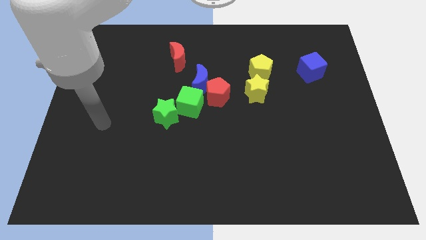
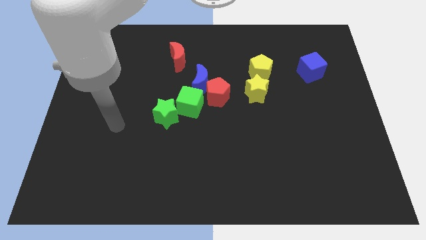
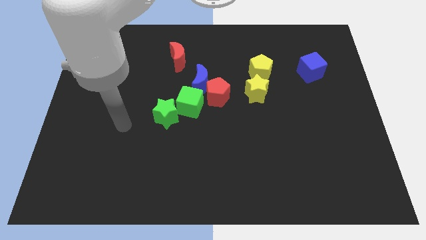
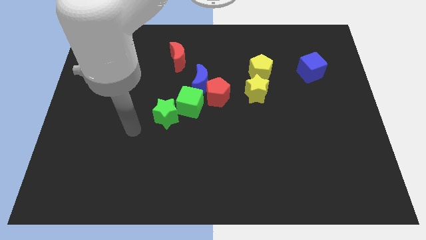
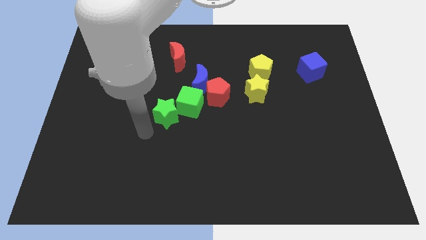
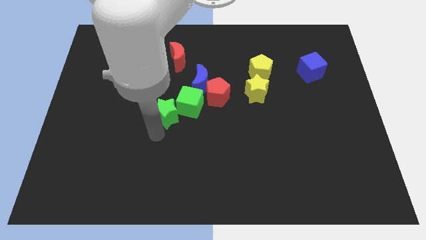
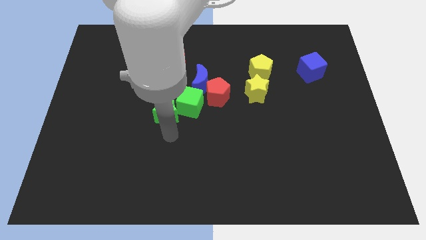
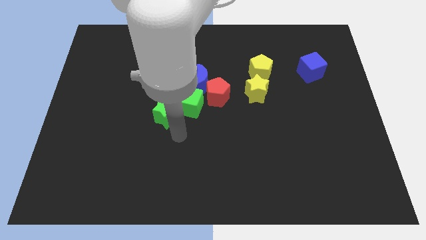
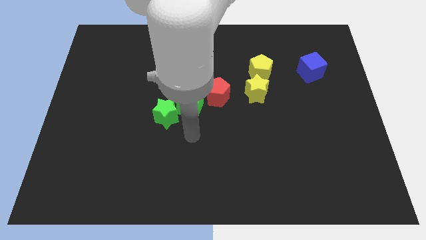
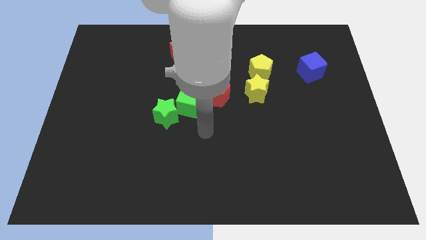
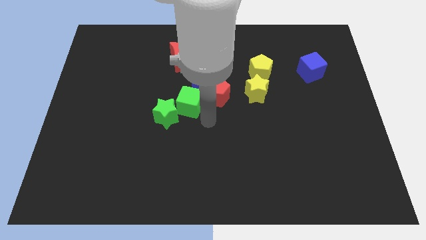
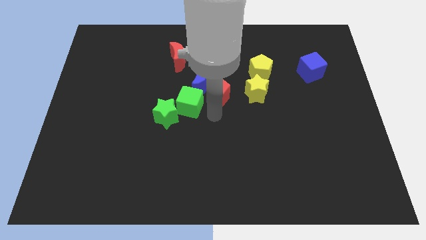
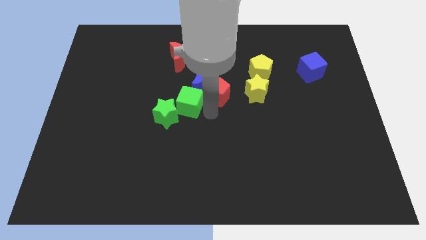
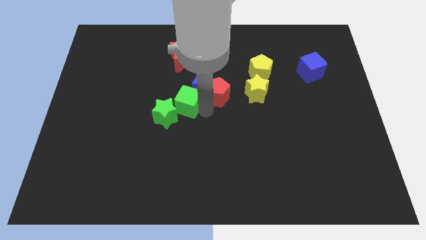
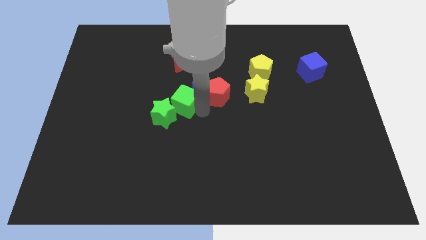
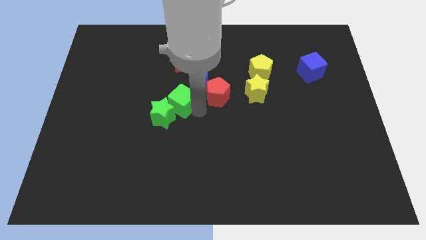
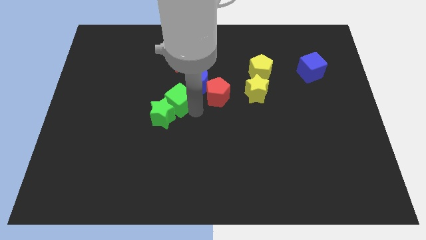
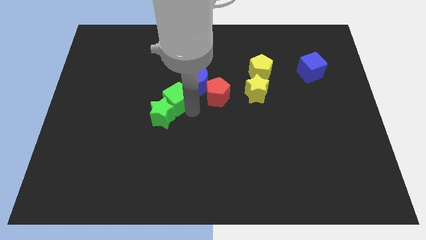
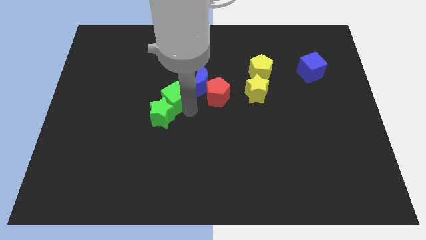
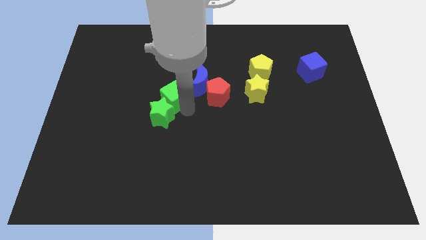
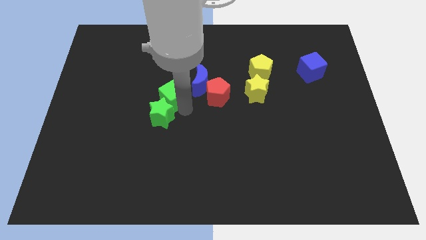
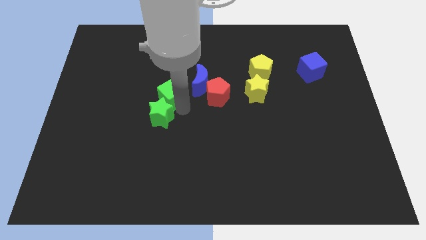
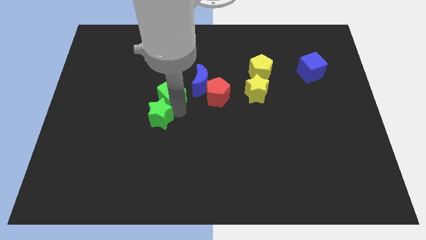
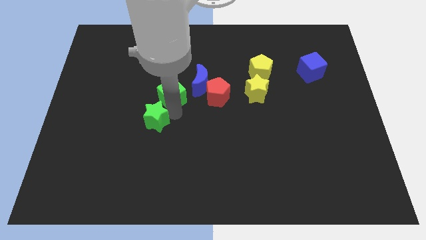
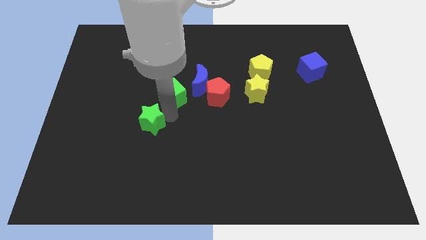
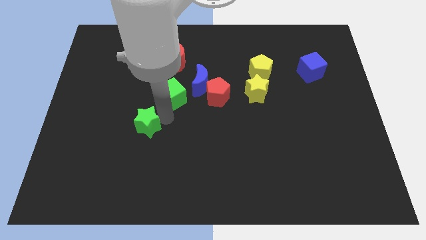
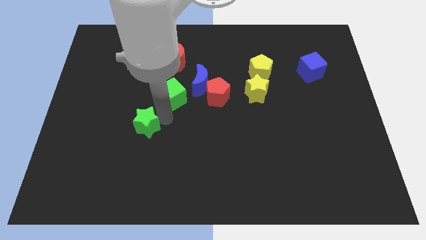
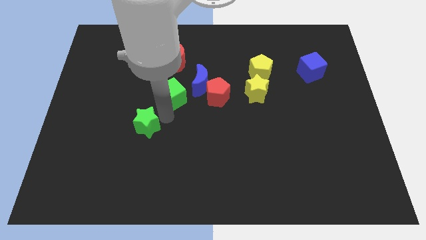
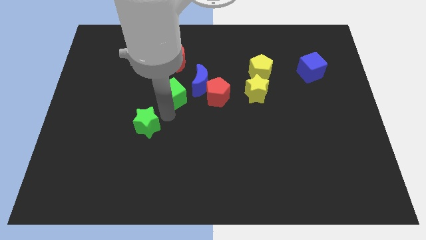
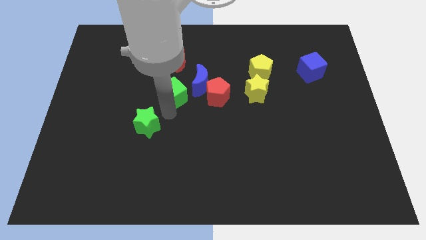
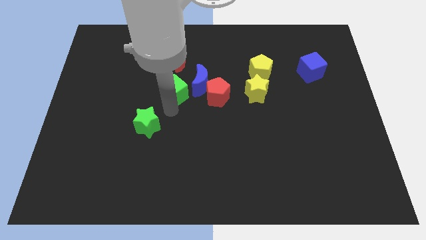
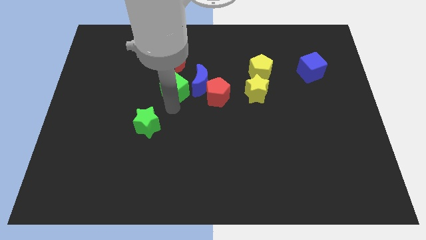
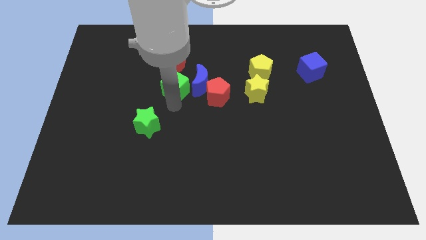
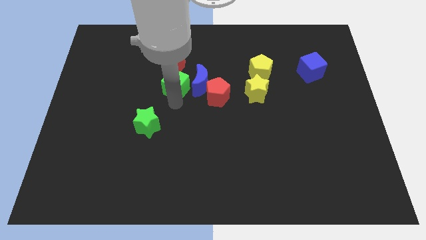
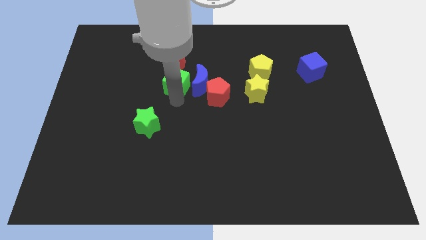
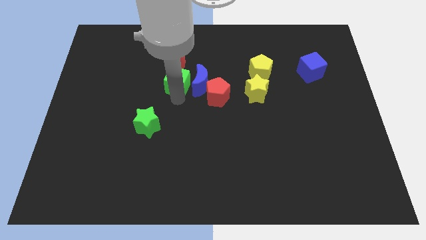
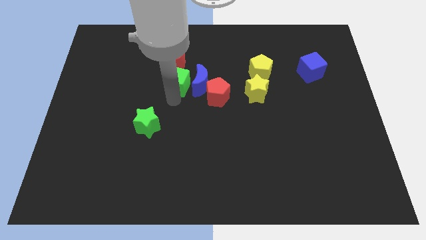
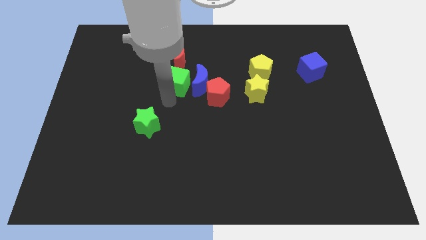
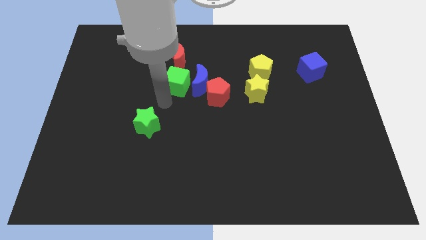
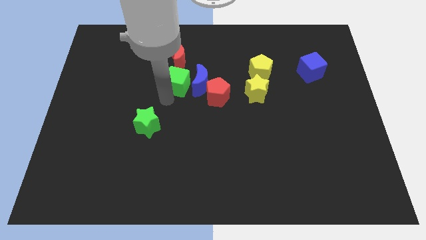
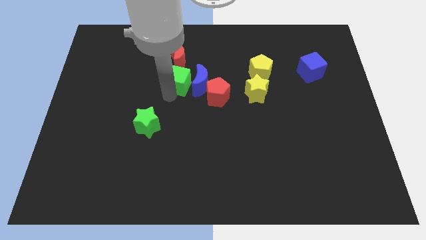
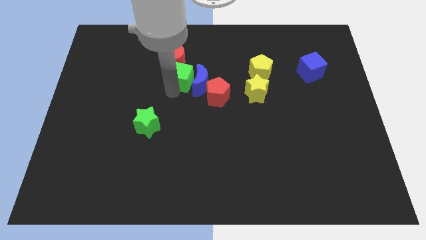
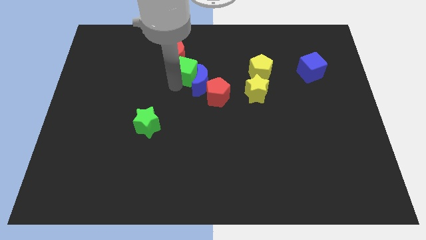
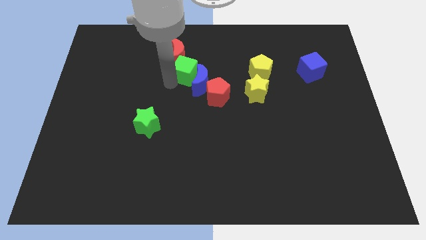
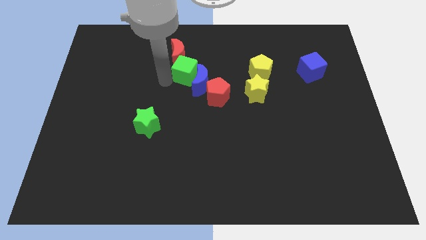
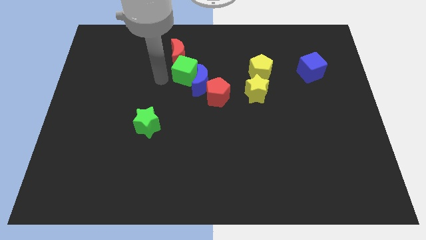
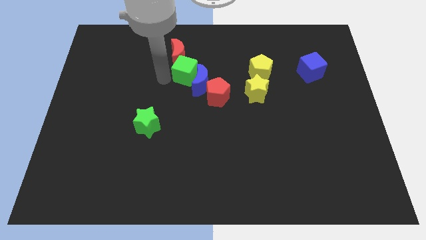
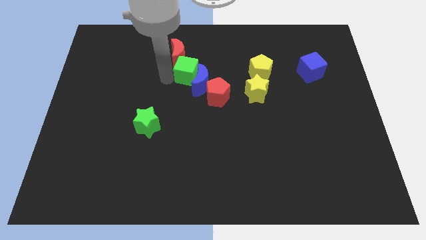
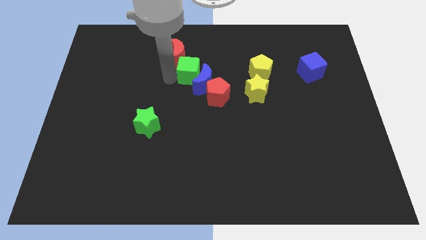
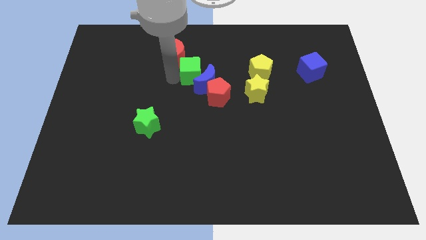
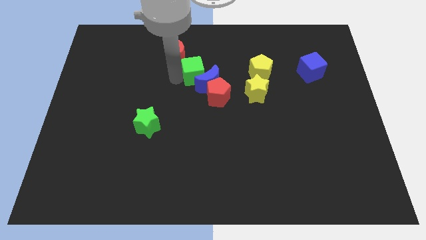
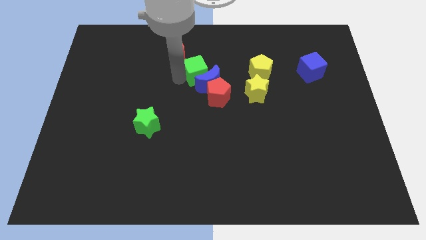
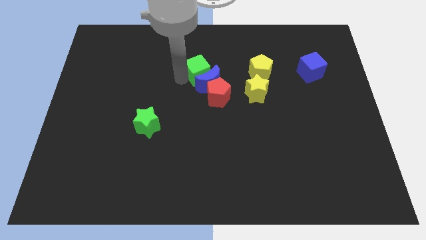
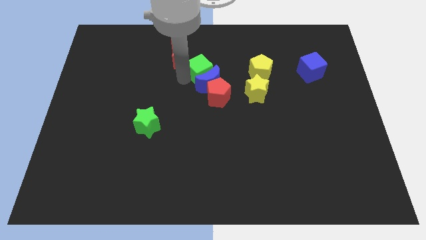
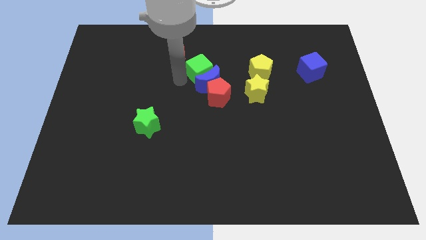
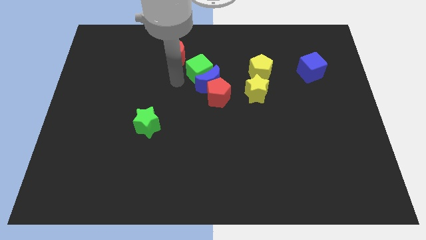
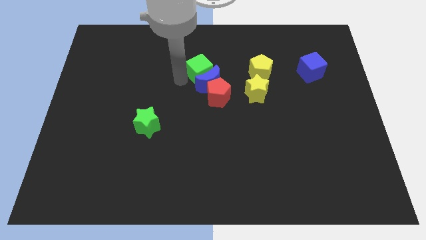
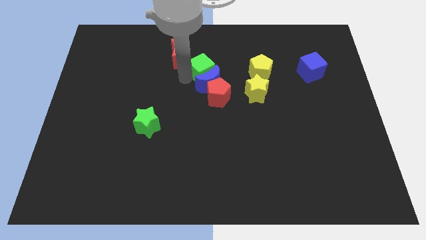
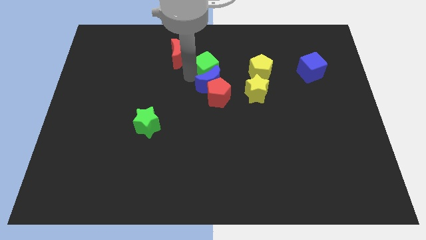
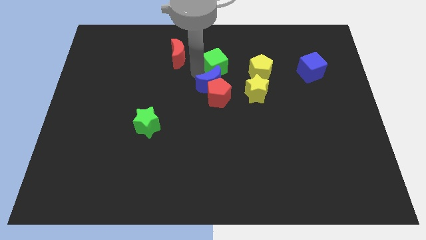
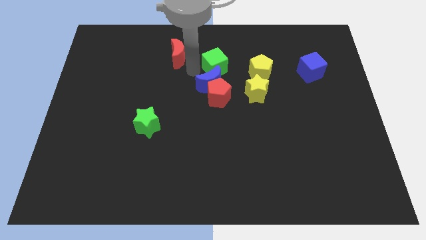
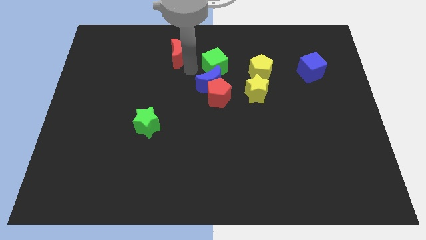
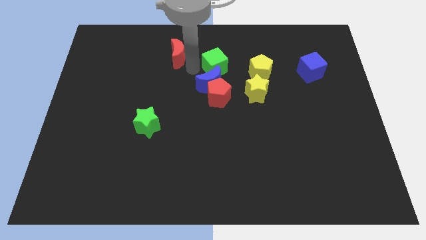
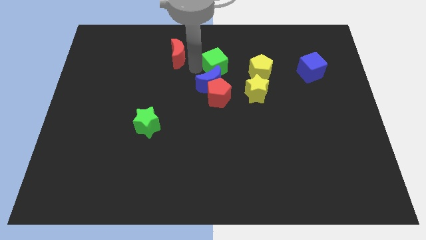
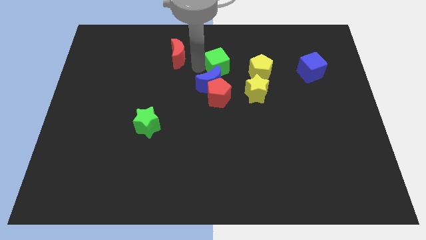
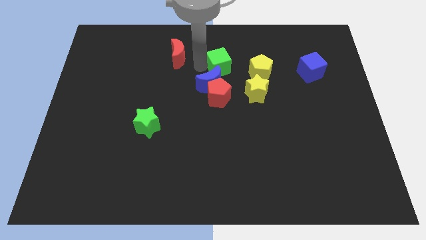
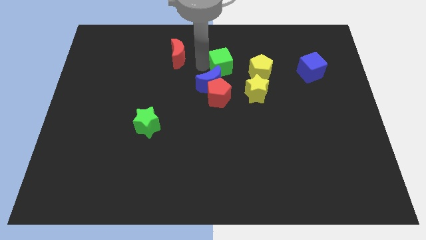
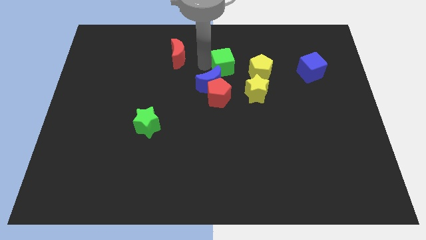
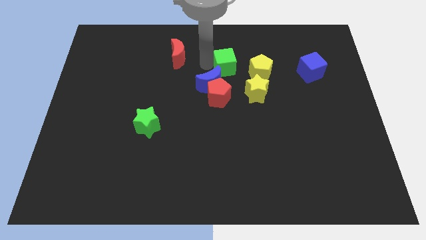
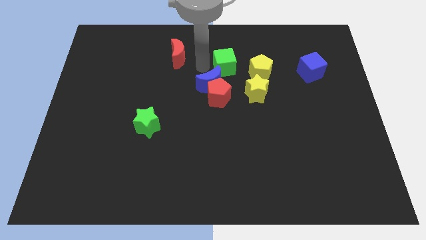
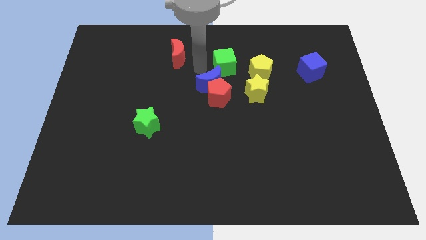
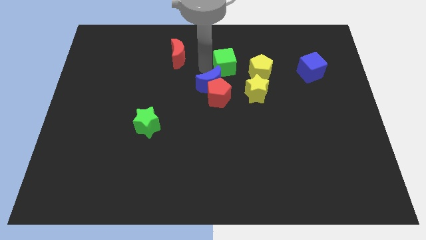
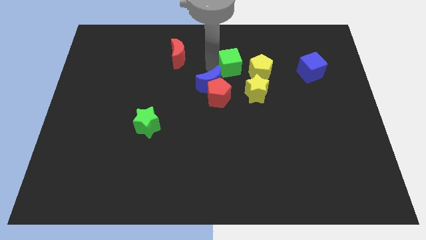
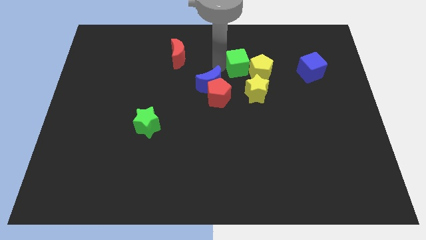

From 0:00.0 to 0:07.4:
move the green cube to the top side of the yellow star
